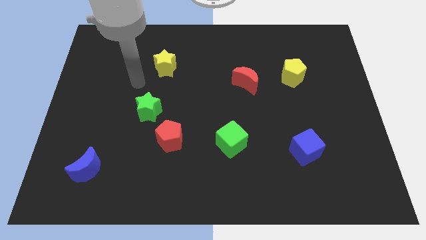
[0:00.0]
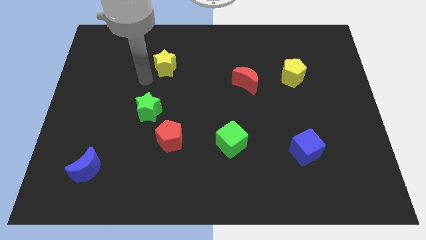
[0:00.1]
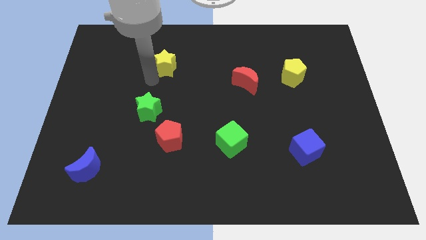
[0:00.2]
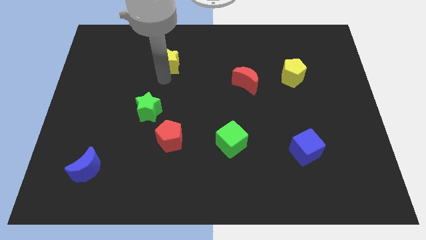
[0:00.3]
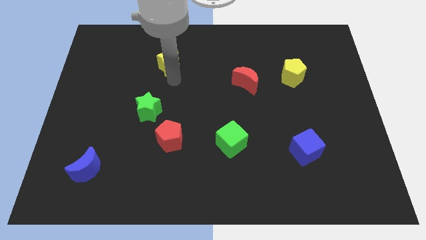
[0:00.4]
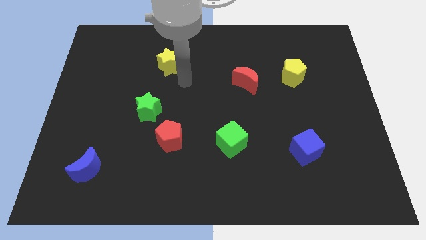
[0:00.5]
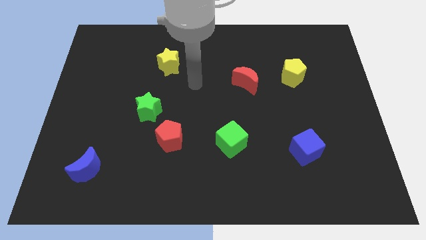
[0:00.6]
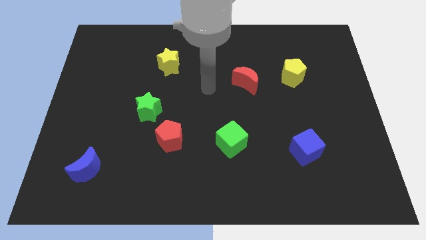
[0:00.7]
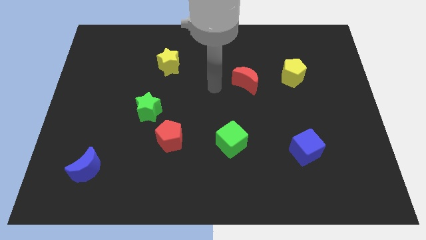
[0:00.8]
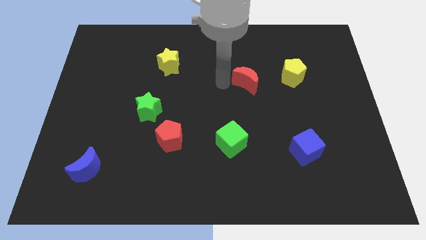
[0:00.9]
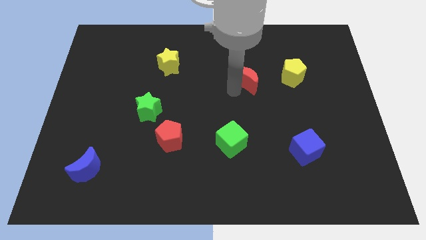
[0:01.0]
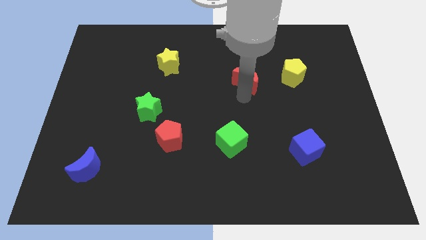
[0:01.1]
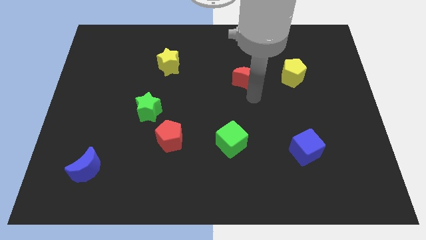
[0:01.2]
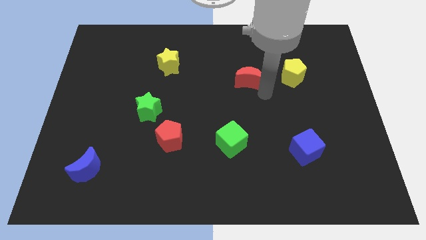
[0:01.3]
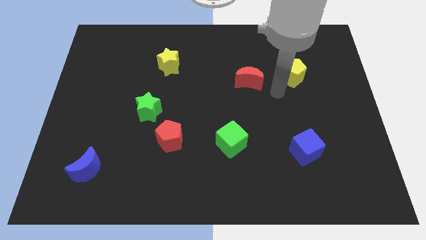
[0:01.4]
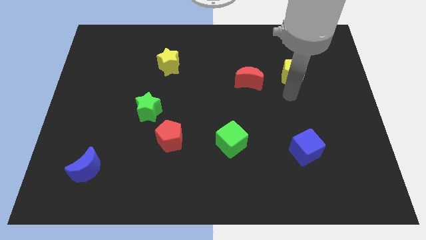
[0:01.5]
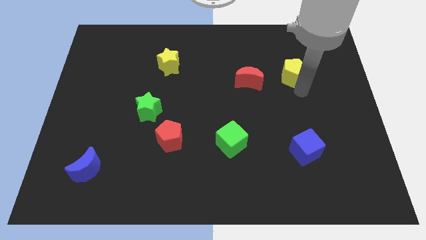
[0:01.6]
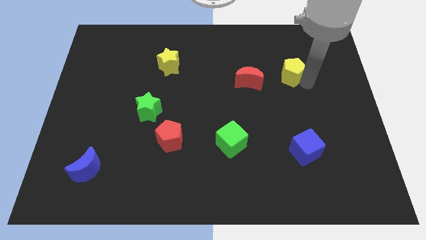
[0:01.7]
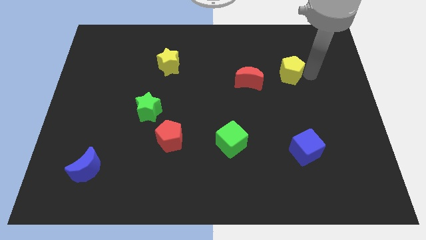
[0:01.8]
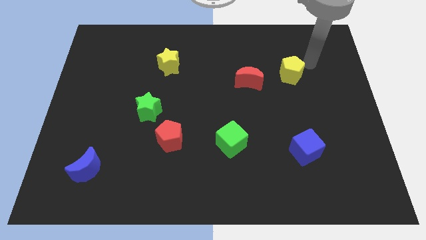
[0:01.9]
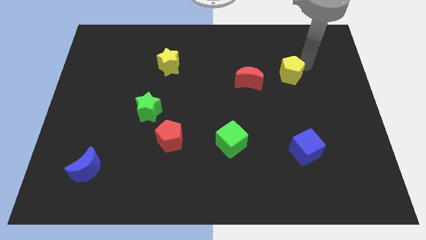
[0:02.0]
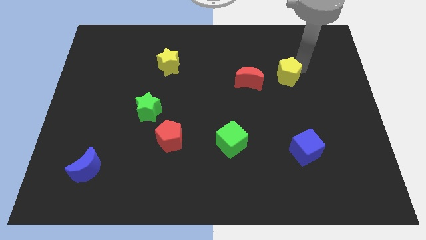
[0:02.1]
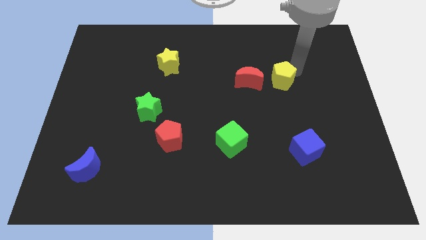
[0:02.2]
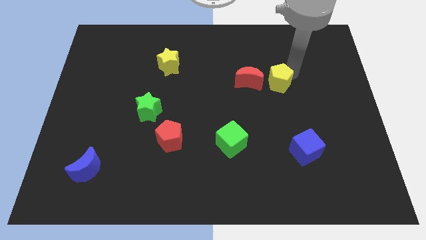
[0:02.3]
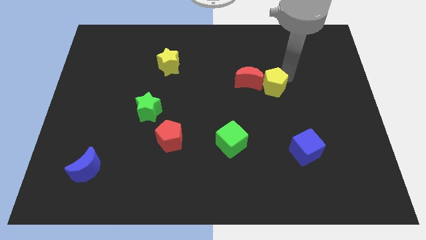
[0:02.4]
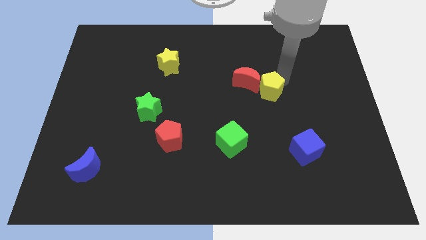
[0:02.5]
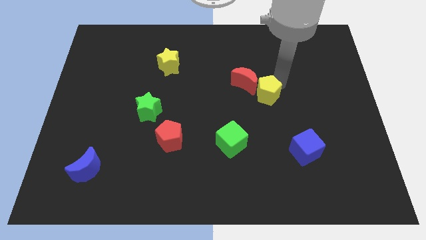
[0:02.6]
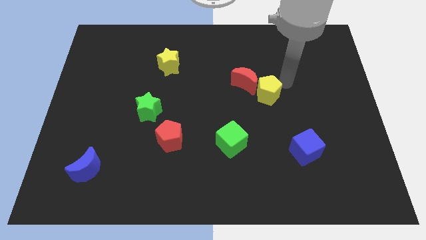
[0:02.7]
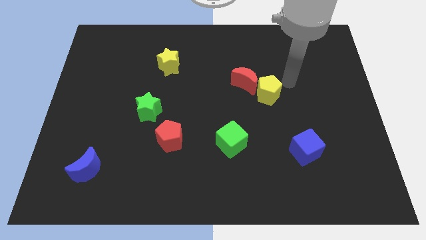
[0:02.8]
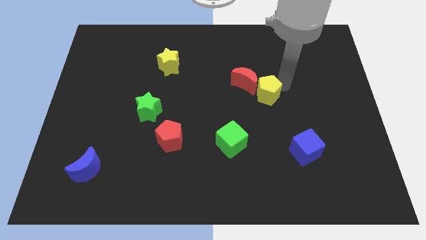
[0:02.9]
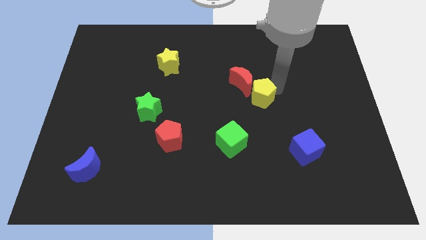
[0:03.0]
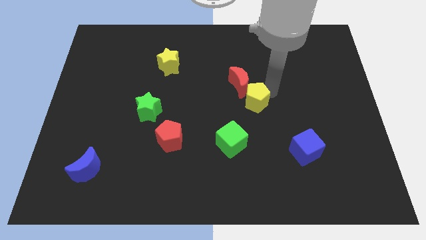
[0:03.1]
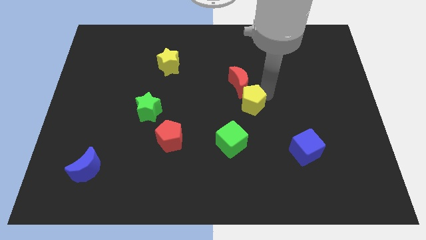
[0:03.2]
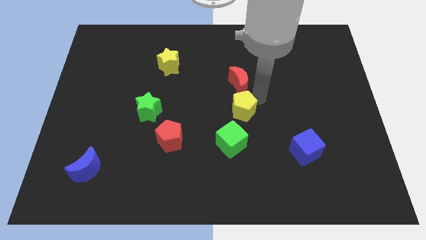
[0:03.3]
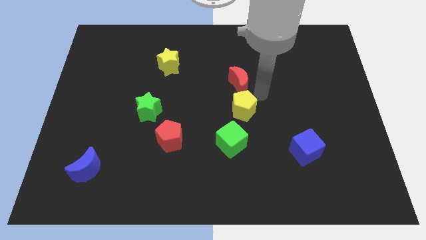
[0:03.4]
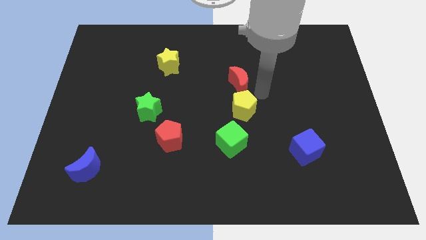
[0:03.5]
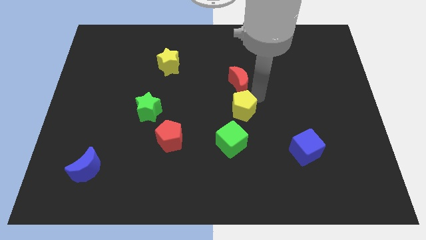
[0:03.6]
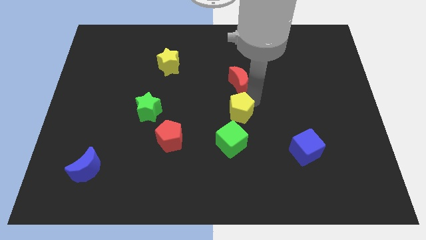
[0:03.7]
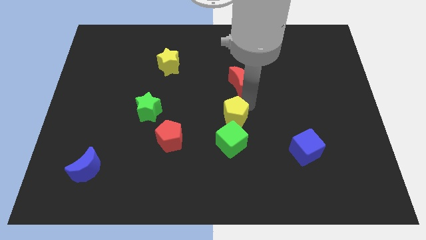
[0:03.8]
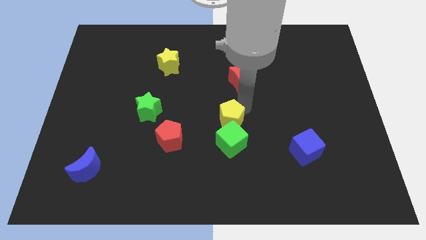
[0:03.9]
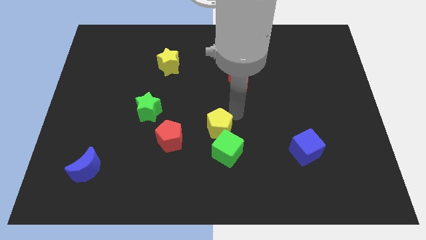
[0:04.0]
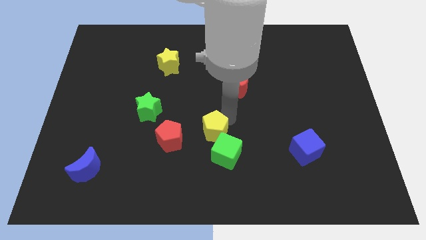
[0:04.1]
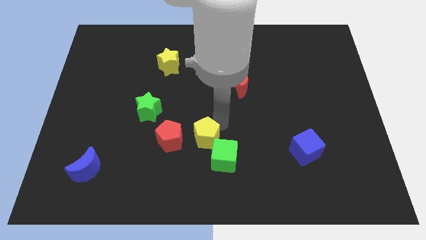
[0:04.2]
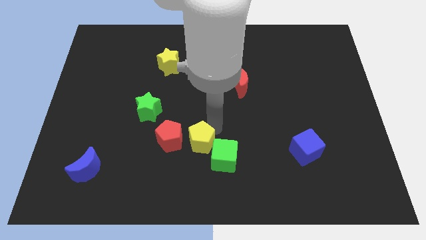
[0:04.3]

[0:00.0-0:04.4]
push the yellow pentagon to the bottom right of the red pentagon

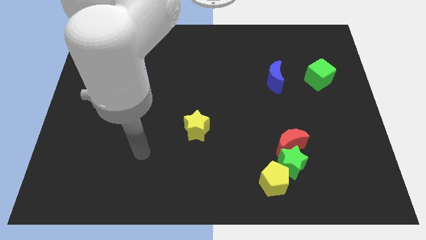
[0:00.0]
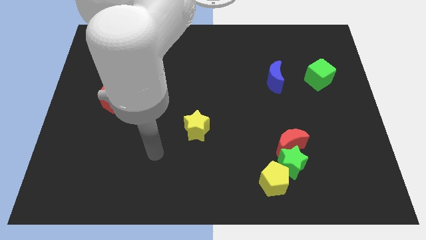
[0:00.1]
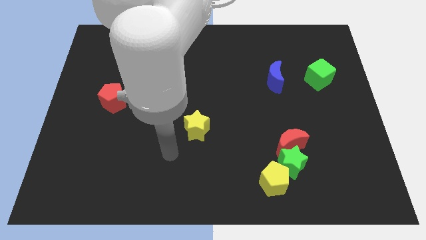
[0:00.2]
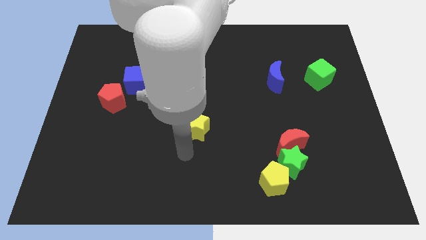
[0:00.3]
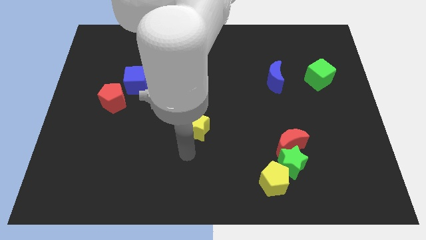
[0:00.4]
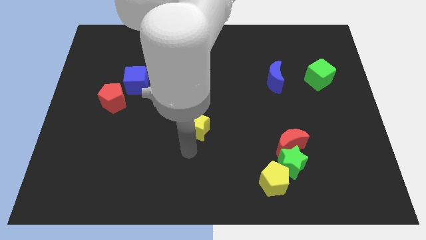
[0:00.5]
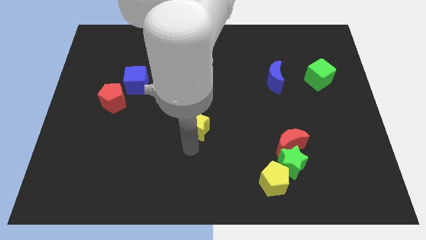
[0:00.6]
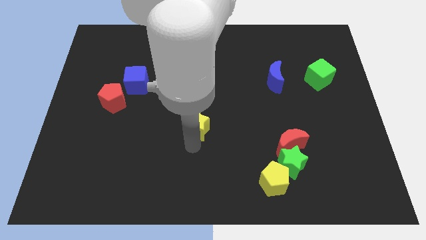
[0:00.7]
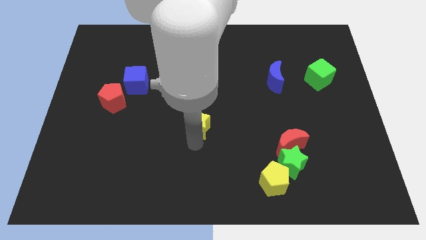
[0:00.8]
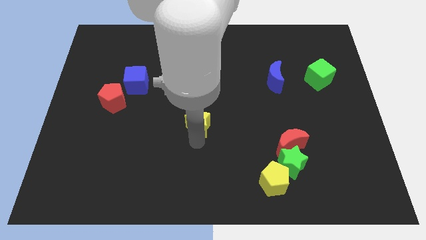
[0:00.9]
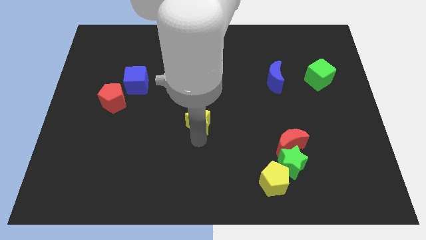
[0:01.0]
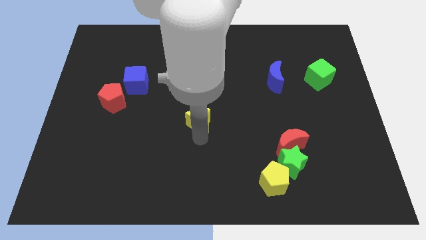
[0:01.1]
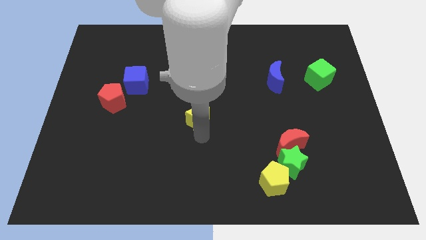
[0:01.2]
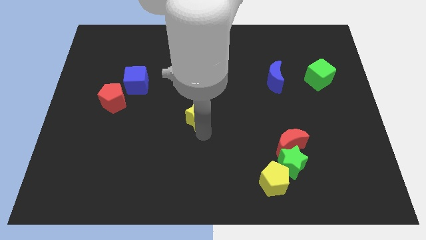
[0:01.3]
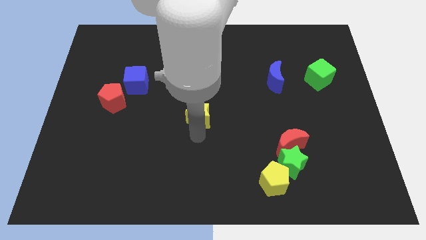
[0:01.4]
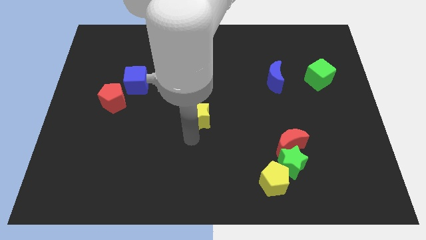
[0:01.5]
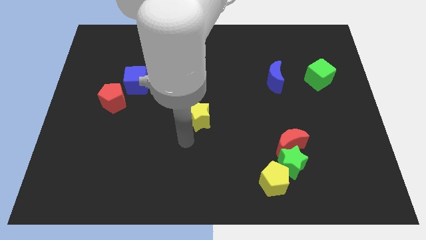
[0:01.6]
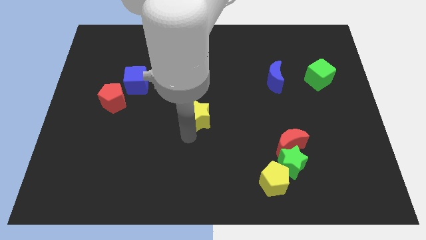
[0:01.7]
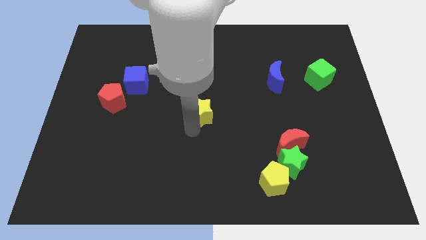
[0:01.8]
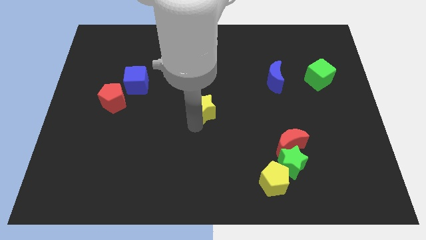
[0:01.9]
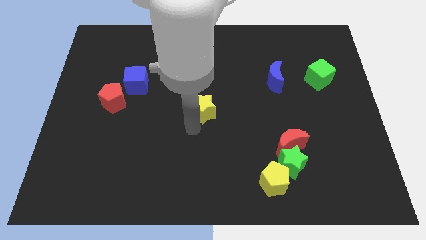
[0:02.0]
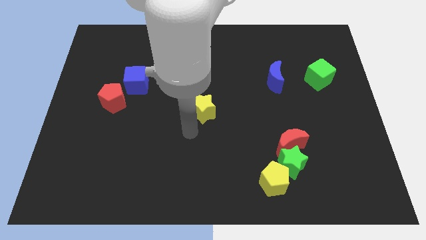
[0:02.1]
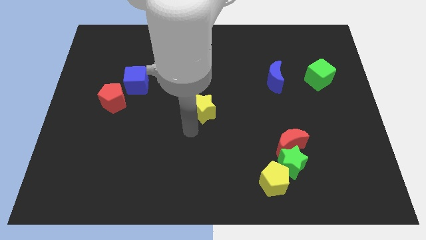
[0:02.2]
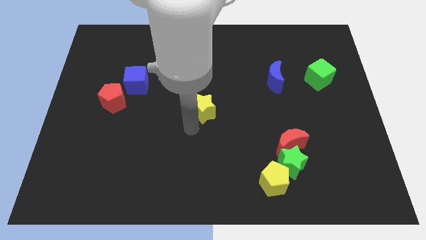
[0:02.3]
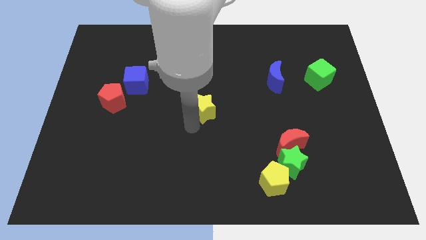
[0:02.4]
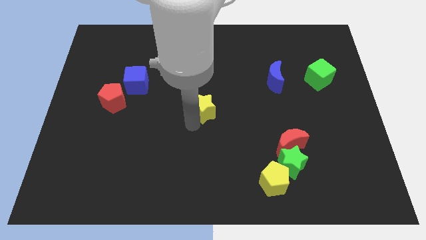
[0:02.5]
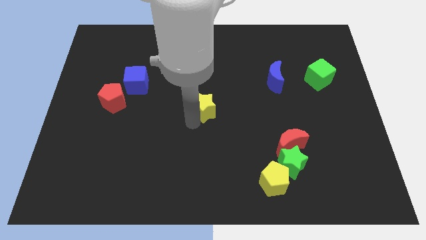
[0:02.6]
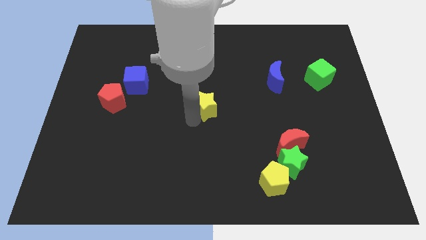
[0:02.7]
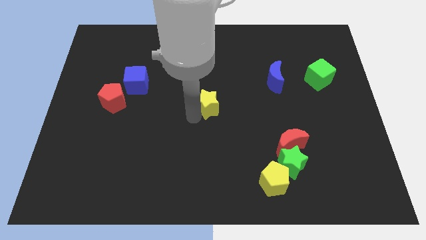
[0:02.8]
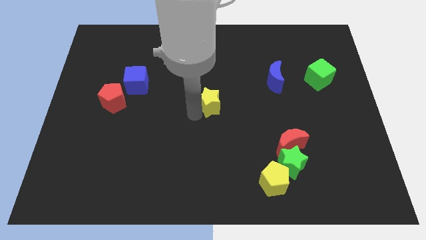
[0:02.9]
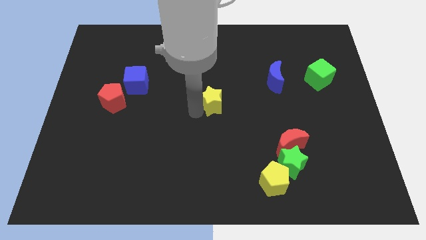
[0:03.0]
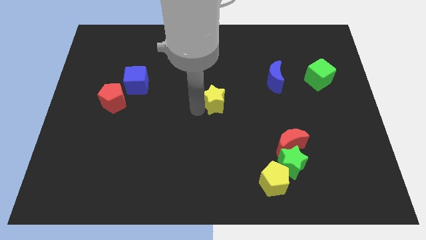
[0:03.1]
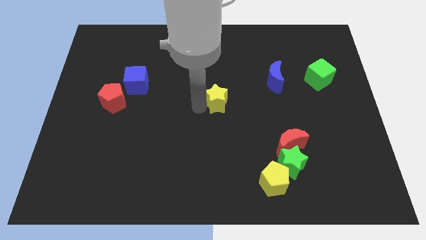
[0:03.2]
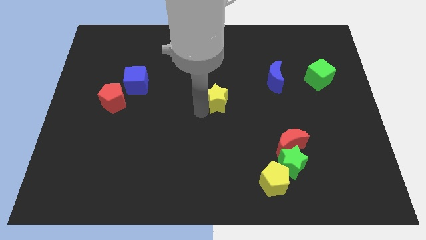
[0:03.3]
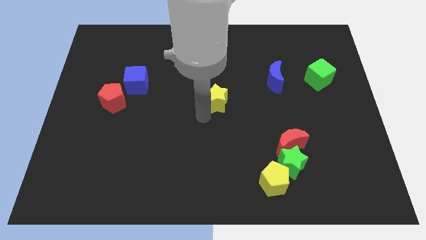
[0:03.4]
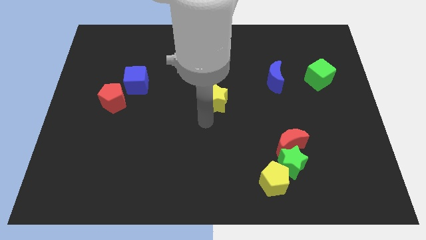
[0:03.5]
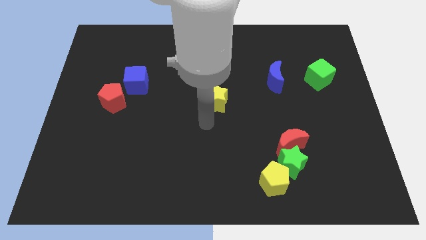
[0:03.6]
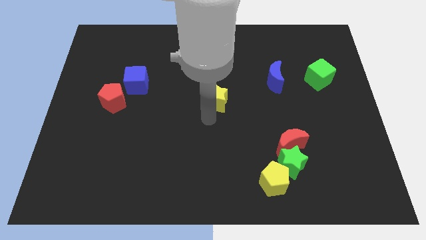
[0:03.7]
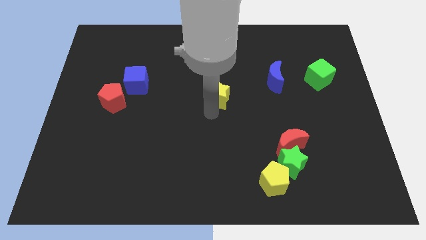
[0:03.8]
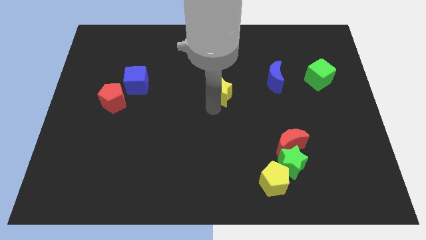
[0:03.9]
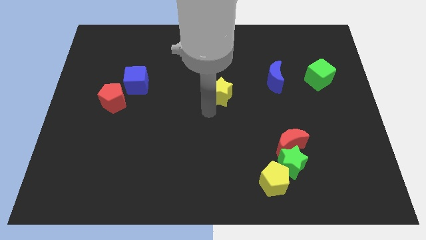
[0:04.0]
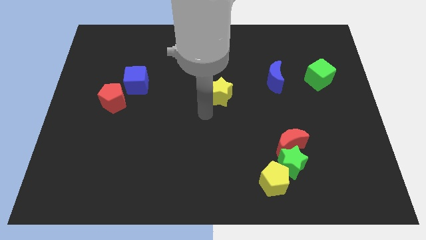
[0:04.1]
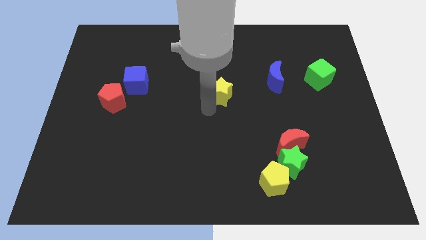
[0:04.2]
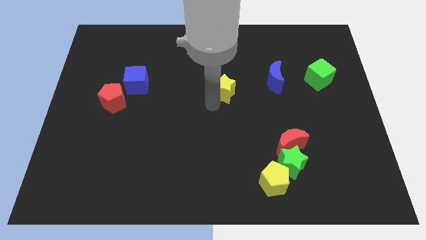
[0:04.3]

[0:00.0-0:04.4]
slide the yellow star left of the blue moon
